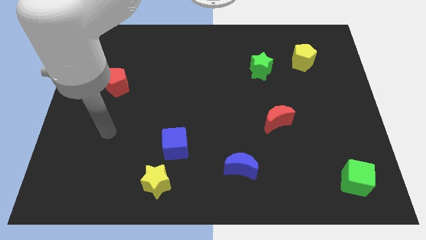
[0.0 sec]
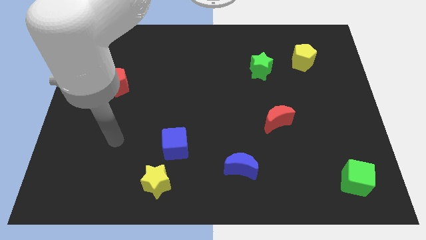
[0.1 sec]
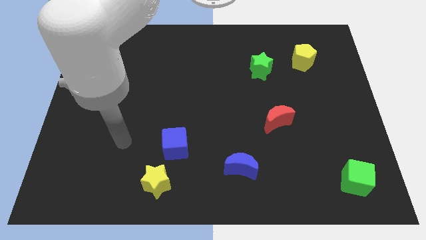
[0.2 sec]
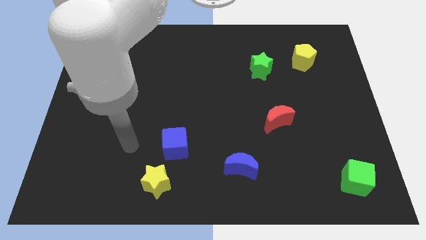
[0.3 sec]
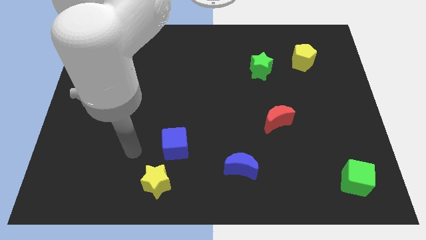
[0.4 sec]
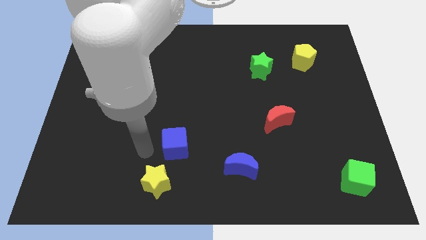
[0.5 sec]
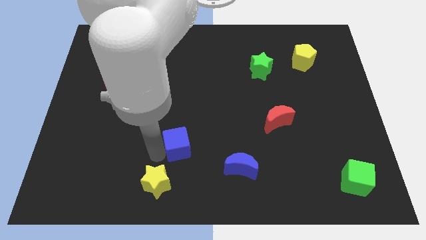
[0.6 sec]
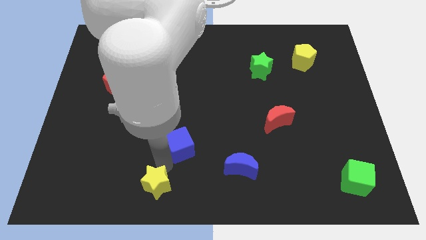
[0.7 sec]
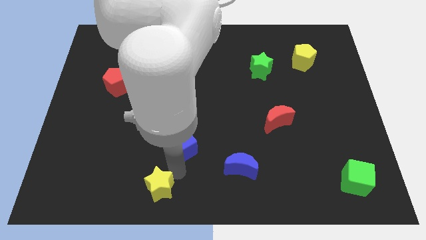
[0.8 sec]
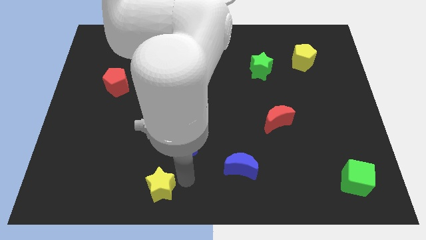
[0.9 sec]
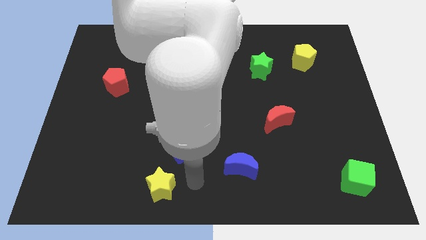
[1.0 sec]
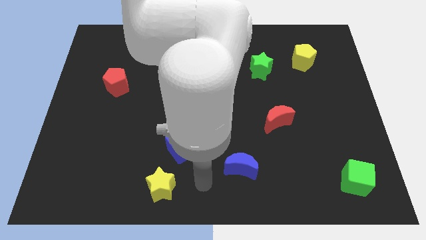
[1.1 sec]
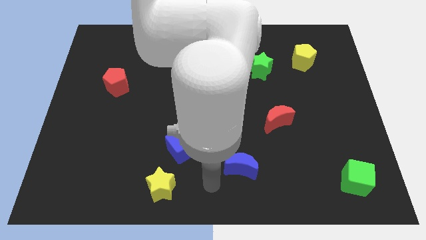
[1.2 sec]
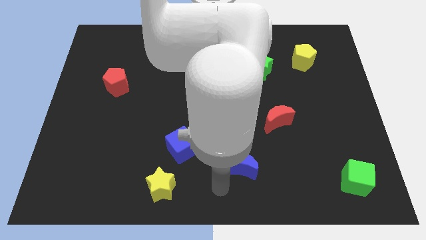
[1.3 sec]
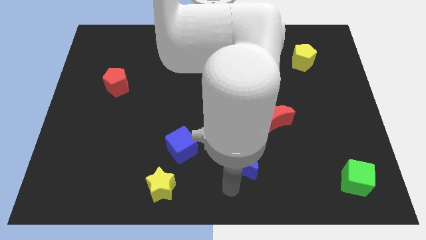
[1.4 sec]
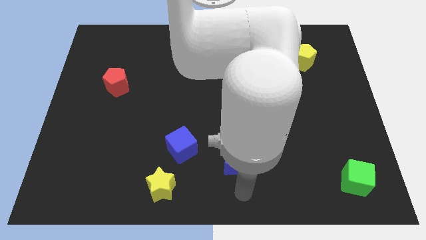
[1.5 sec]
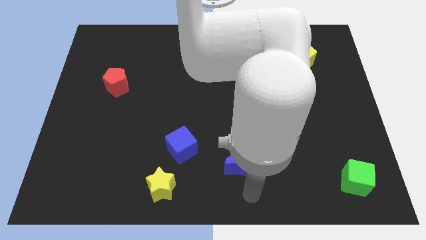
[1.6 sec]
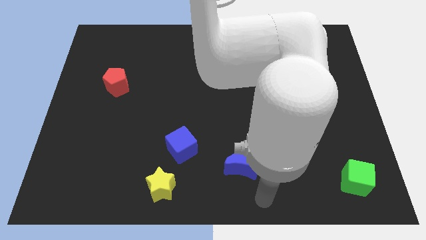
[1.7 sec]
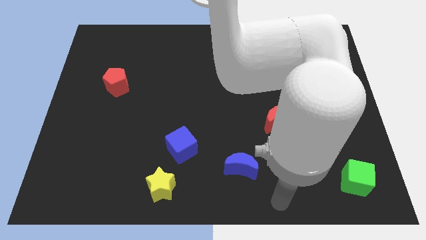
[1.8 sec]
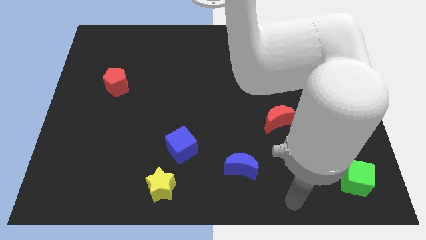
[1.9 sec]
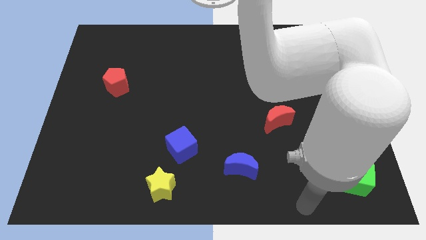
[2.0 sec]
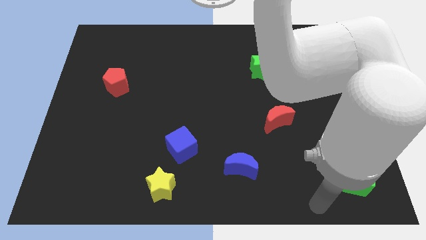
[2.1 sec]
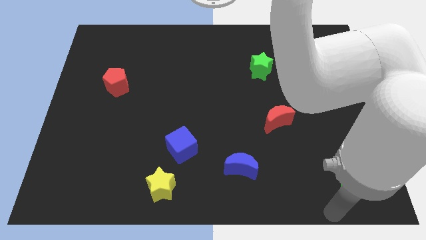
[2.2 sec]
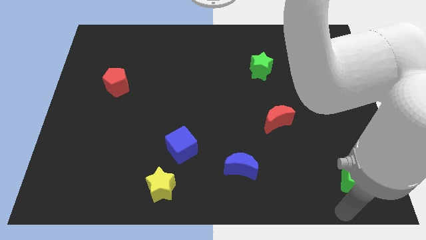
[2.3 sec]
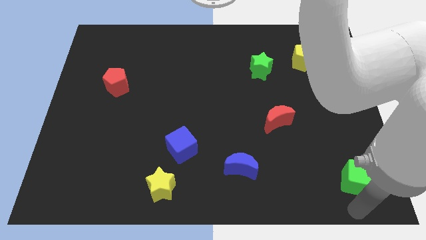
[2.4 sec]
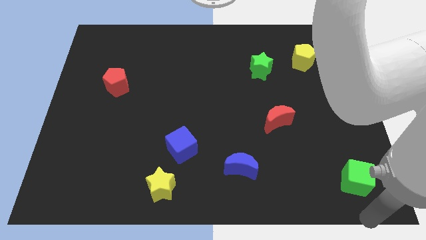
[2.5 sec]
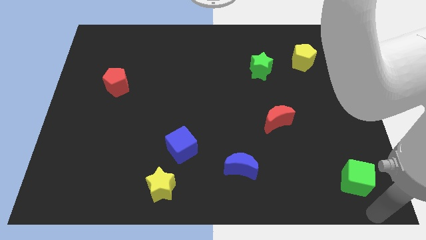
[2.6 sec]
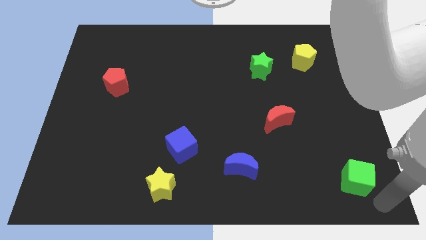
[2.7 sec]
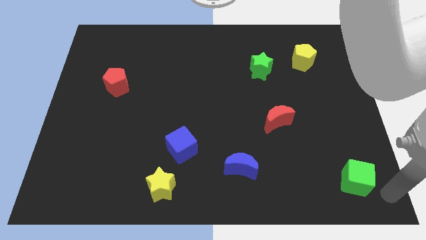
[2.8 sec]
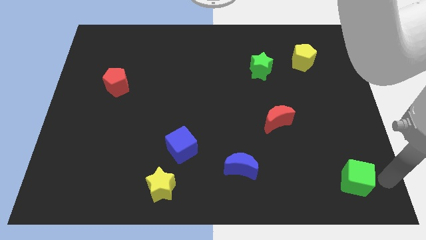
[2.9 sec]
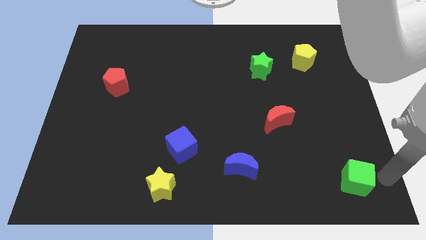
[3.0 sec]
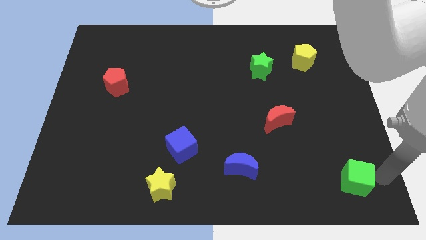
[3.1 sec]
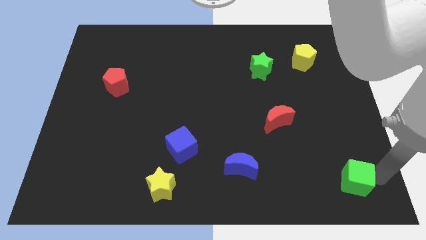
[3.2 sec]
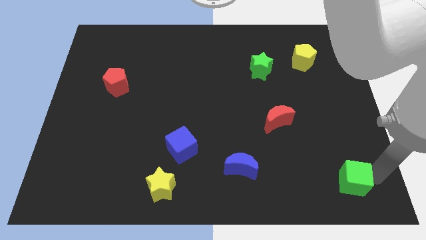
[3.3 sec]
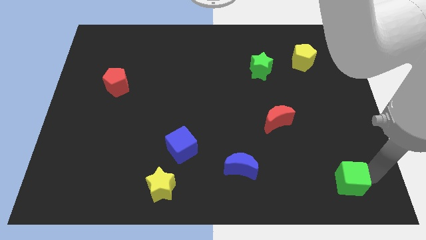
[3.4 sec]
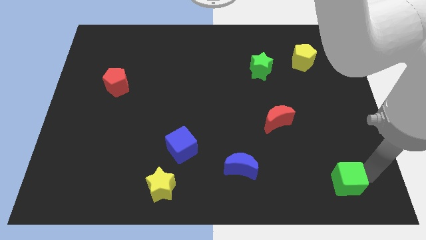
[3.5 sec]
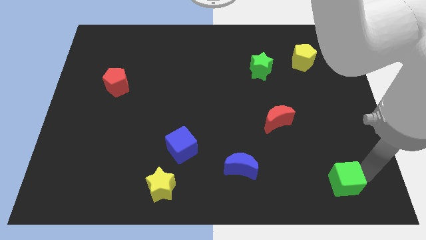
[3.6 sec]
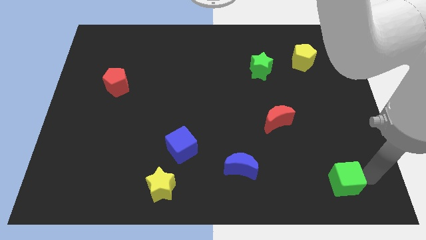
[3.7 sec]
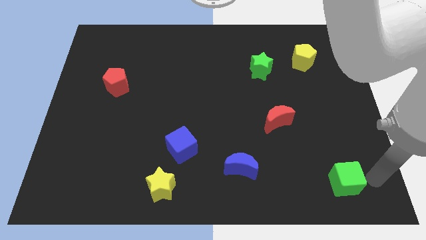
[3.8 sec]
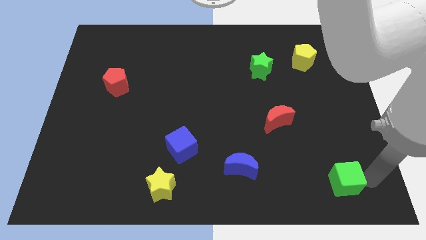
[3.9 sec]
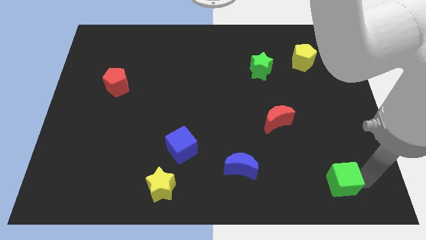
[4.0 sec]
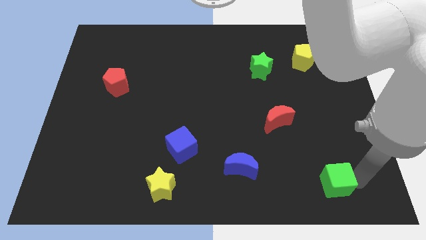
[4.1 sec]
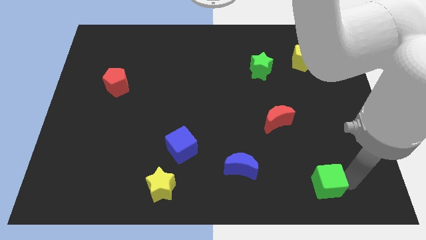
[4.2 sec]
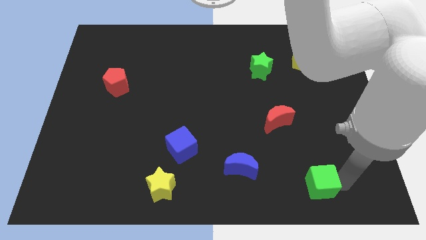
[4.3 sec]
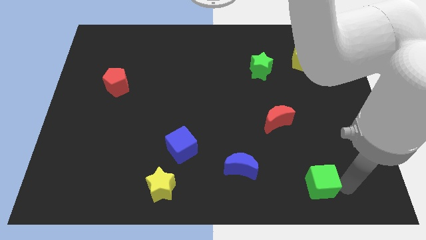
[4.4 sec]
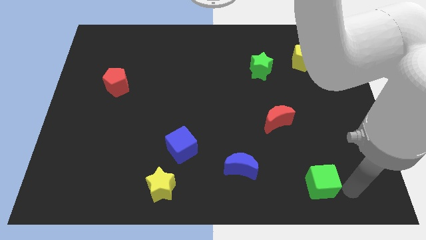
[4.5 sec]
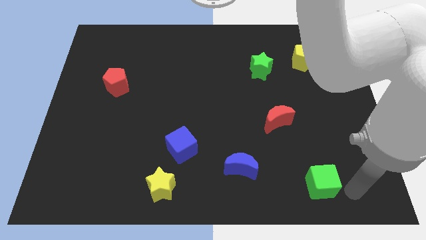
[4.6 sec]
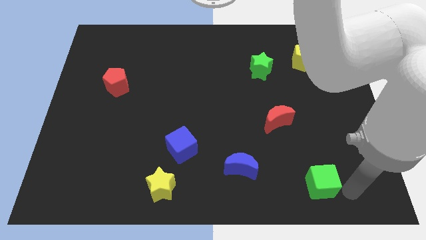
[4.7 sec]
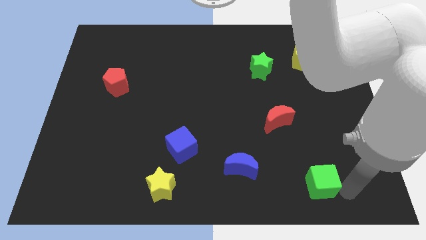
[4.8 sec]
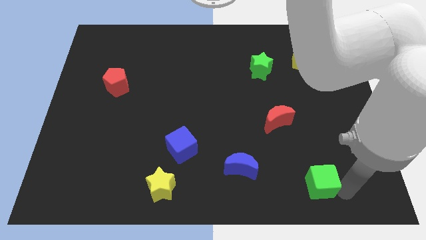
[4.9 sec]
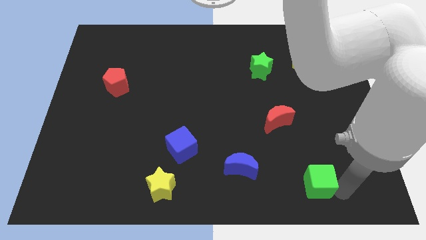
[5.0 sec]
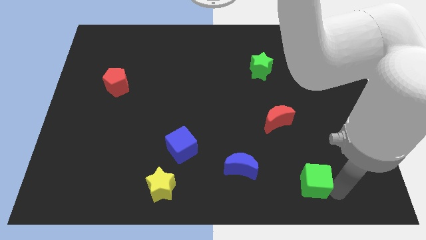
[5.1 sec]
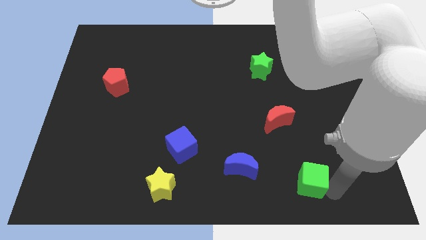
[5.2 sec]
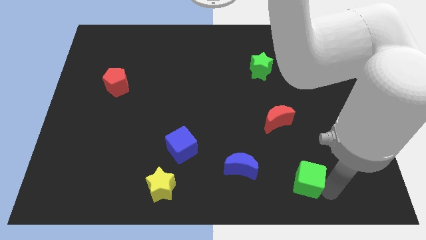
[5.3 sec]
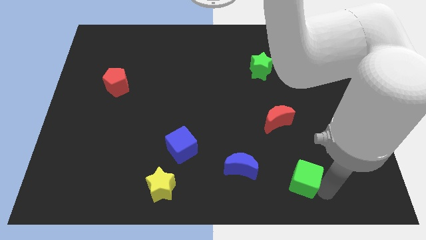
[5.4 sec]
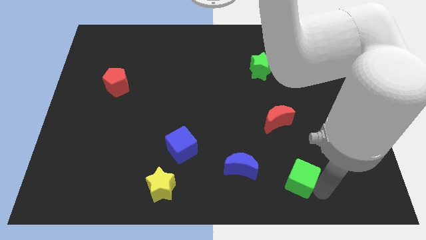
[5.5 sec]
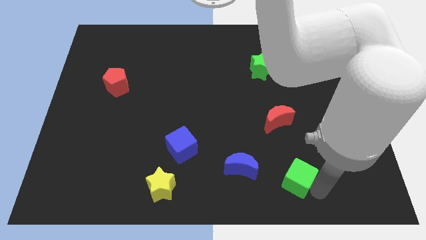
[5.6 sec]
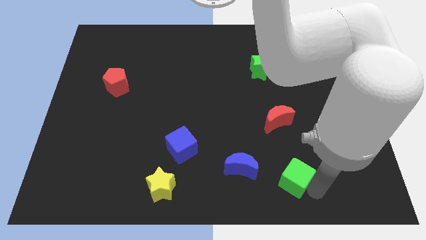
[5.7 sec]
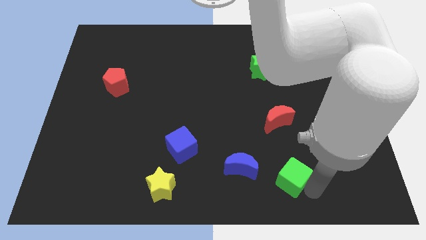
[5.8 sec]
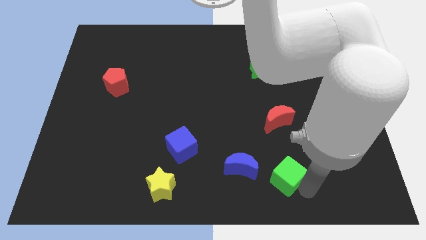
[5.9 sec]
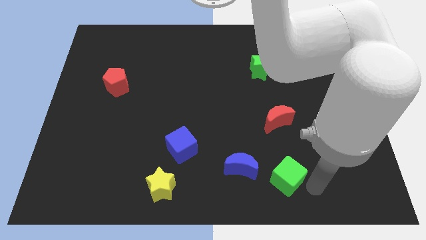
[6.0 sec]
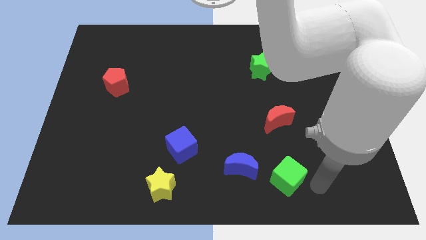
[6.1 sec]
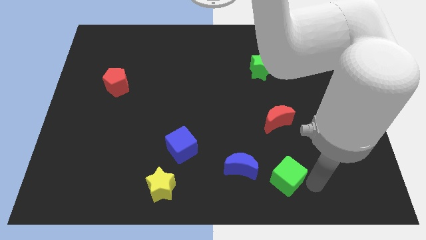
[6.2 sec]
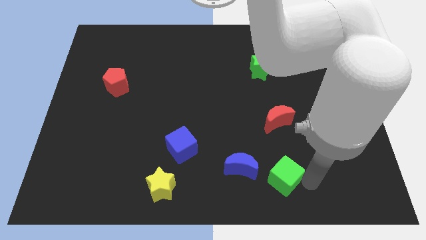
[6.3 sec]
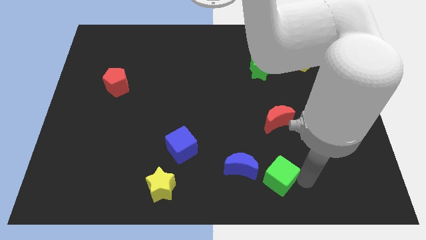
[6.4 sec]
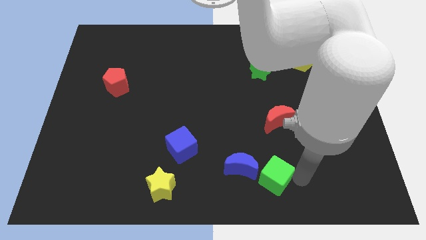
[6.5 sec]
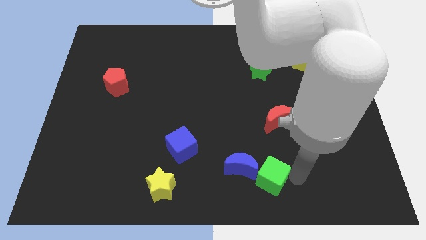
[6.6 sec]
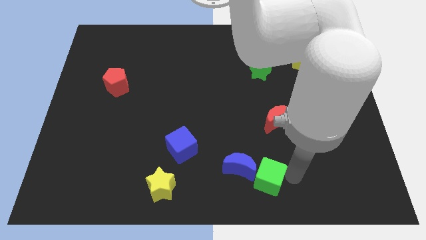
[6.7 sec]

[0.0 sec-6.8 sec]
put the green cube next to the blue moon

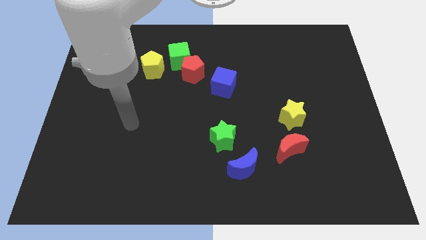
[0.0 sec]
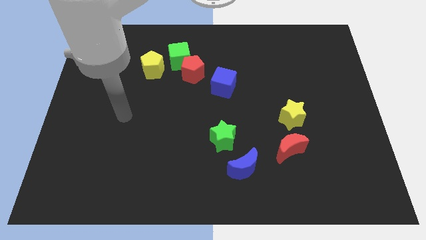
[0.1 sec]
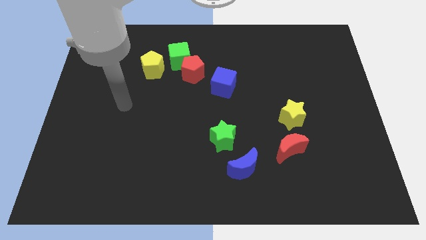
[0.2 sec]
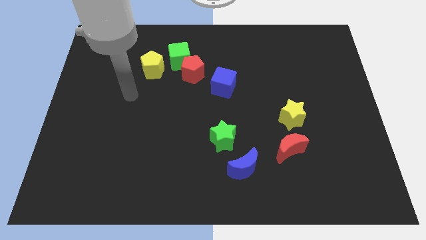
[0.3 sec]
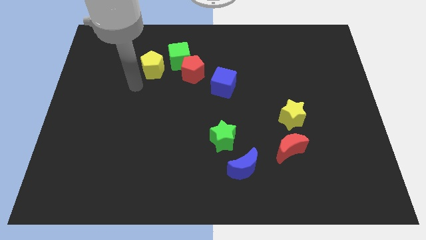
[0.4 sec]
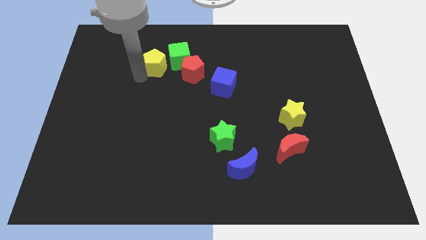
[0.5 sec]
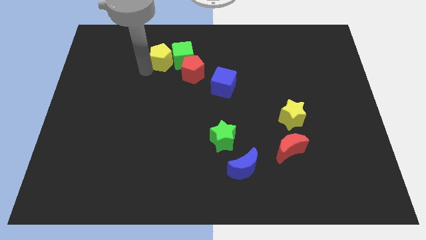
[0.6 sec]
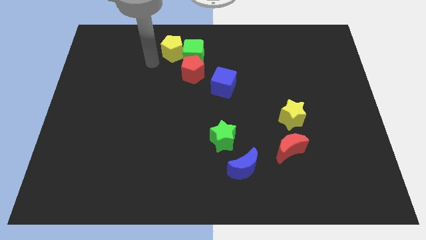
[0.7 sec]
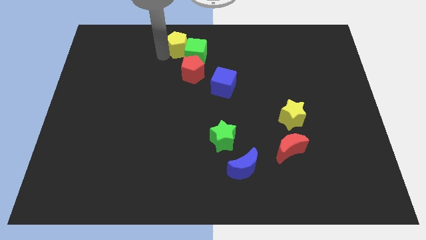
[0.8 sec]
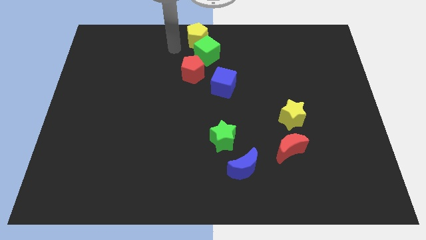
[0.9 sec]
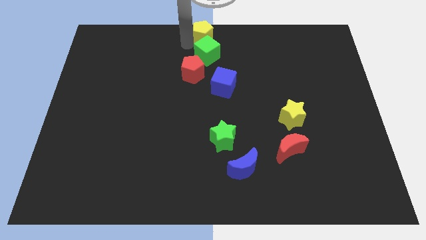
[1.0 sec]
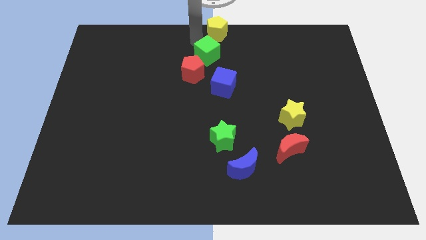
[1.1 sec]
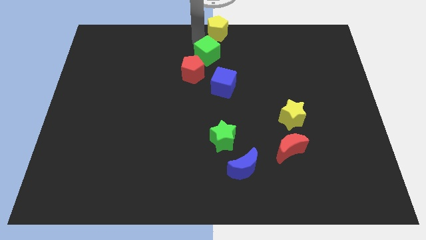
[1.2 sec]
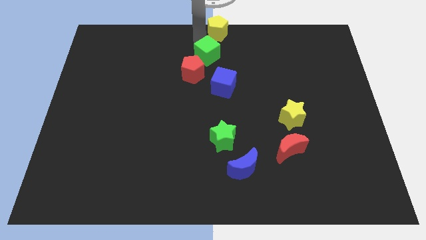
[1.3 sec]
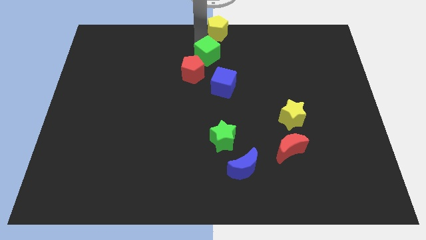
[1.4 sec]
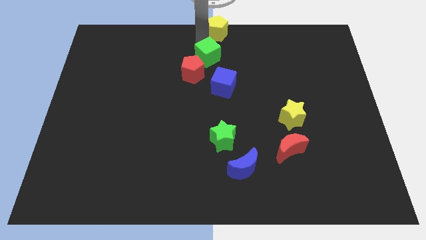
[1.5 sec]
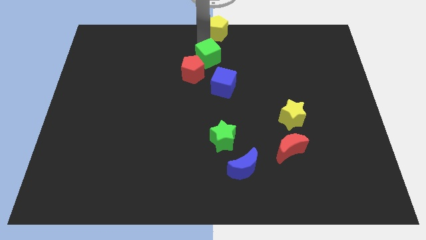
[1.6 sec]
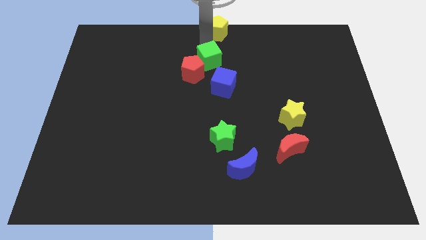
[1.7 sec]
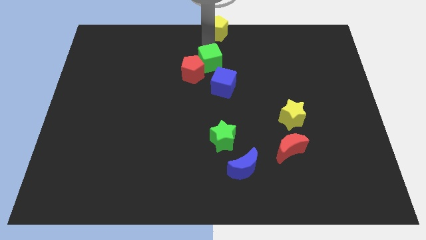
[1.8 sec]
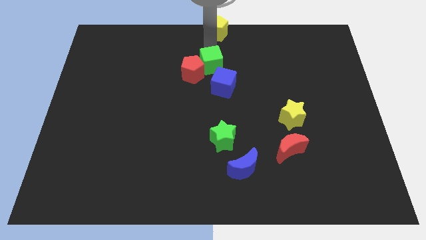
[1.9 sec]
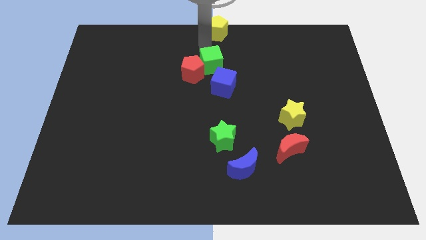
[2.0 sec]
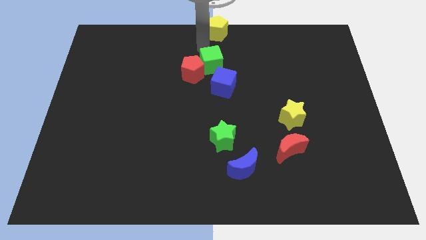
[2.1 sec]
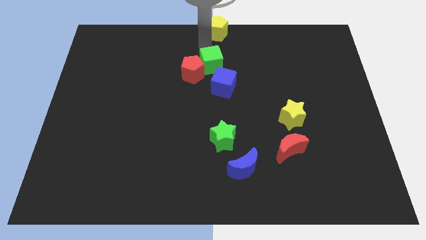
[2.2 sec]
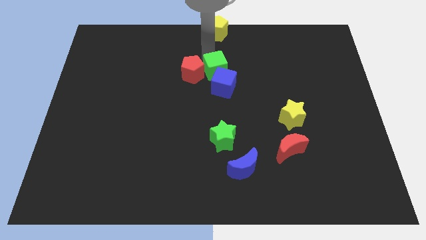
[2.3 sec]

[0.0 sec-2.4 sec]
slide the green cube towards the blue cube
